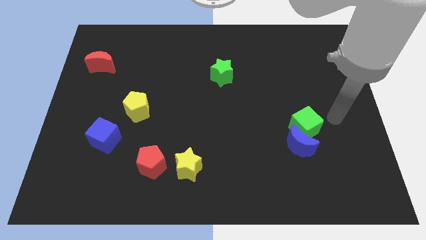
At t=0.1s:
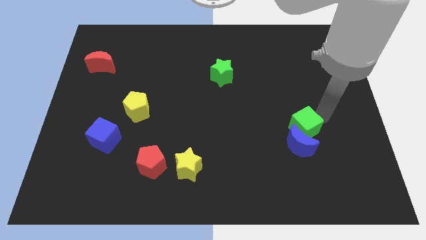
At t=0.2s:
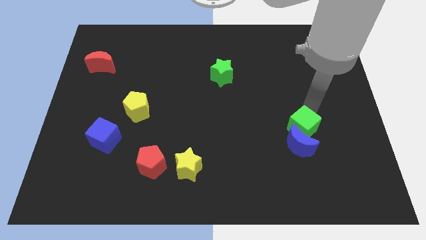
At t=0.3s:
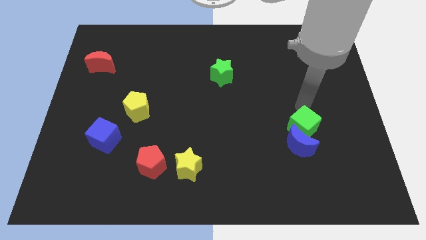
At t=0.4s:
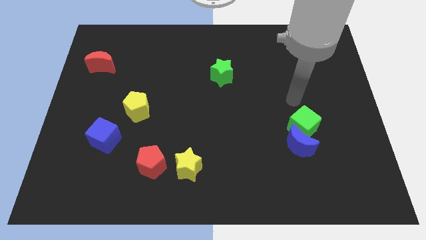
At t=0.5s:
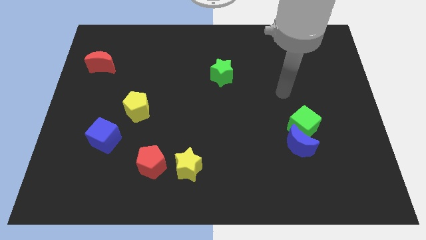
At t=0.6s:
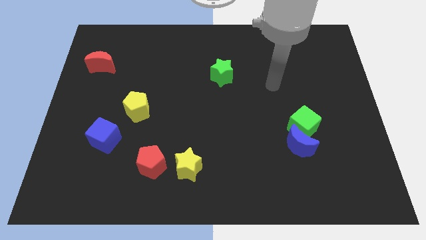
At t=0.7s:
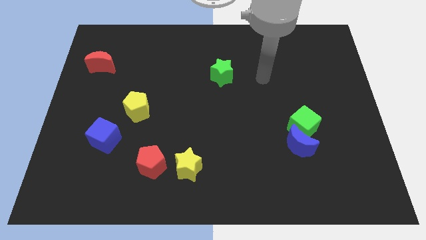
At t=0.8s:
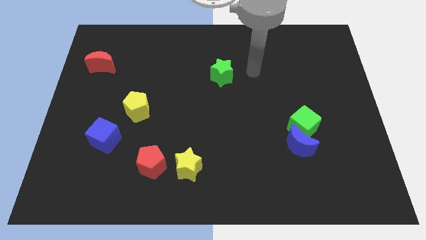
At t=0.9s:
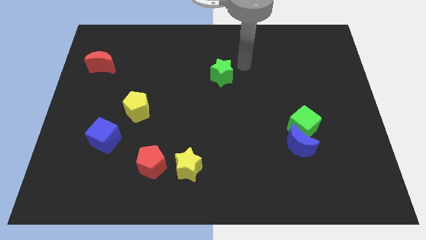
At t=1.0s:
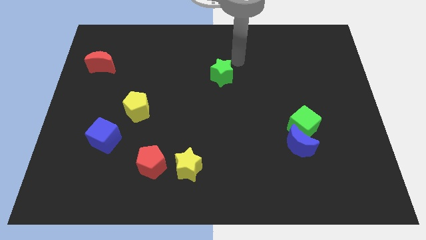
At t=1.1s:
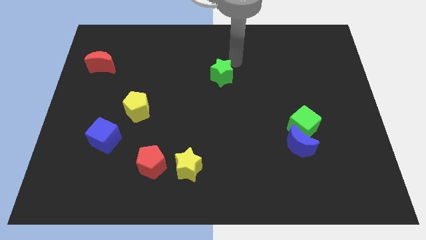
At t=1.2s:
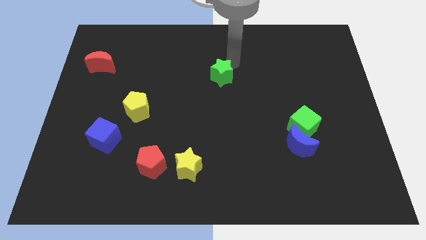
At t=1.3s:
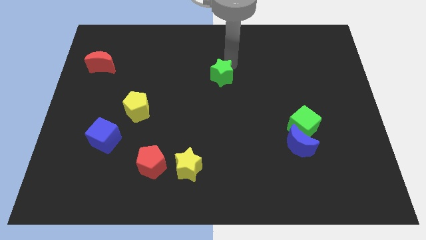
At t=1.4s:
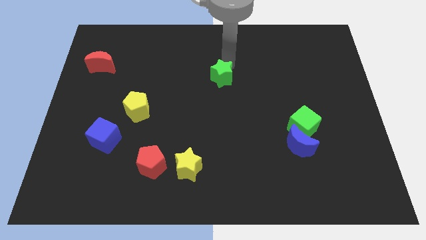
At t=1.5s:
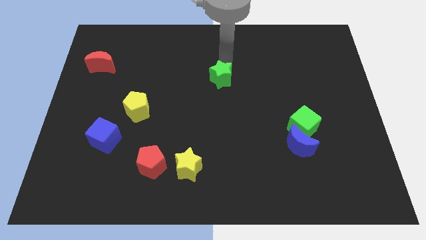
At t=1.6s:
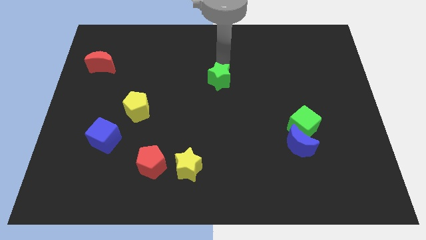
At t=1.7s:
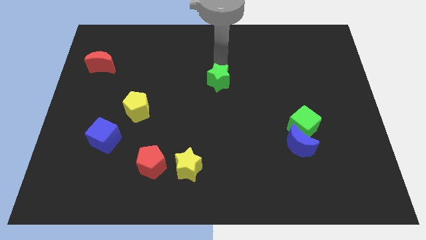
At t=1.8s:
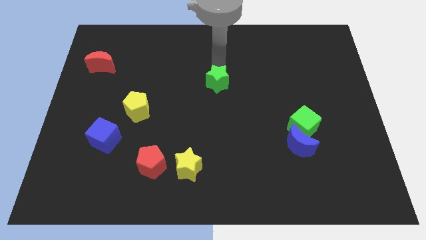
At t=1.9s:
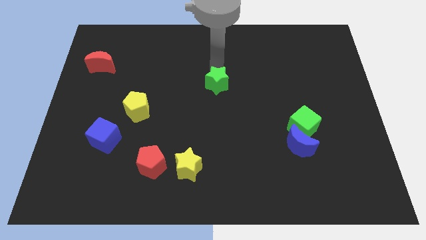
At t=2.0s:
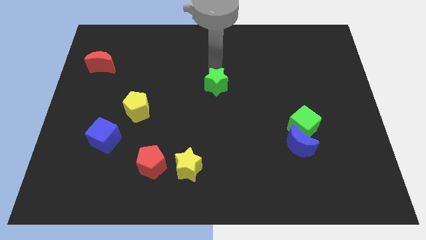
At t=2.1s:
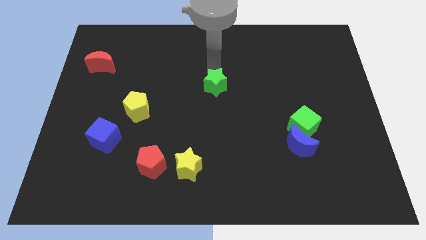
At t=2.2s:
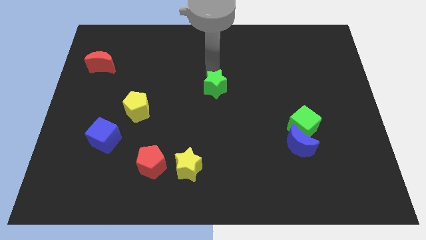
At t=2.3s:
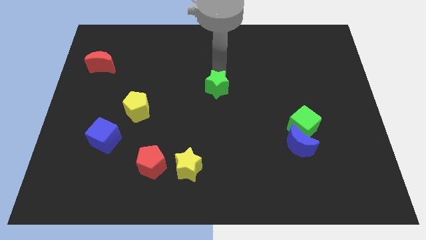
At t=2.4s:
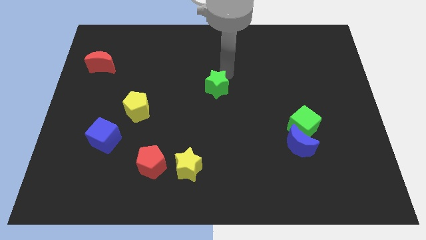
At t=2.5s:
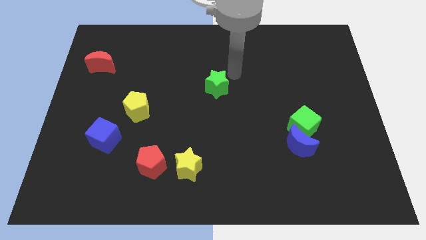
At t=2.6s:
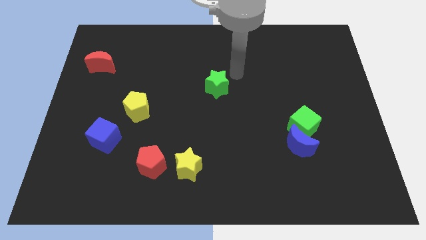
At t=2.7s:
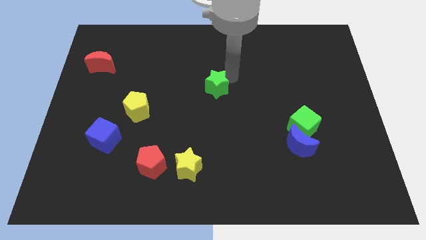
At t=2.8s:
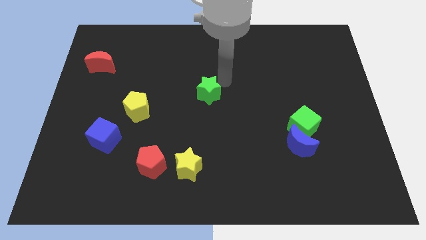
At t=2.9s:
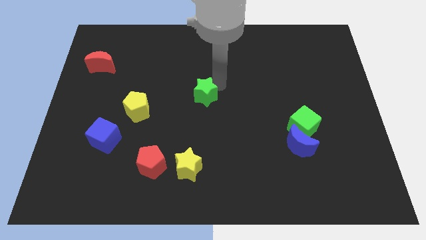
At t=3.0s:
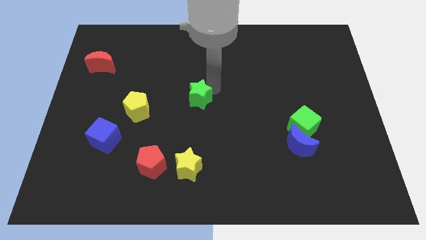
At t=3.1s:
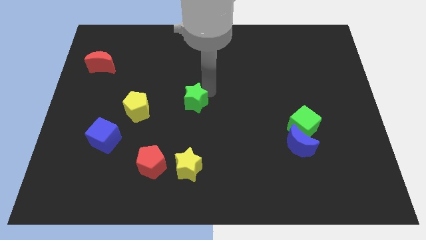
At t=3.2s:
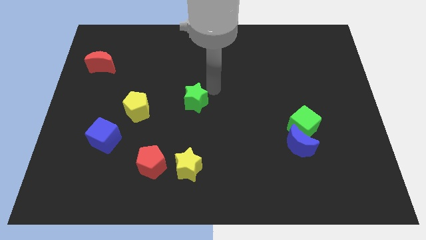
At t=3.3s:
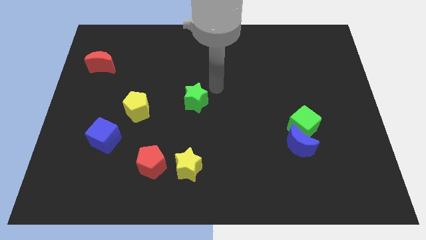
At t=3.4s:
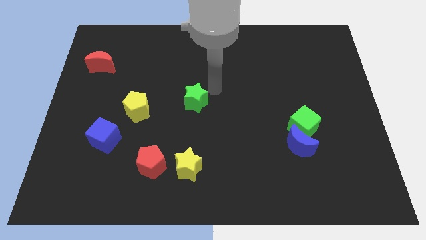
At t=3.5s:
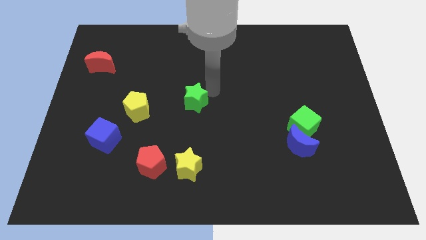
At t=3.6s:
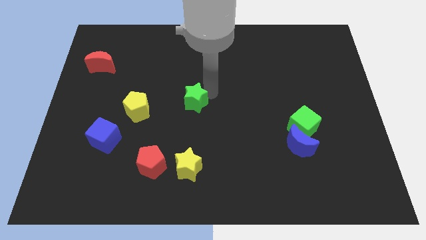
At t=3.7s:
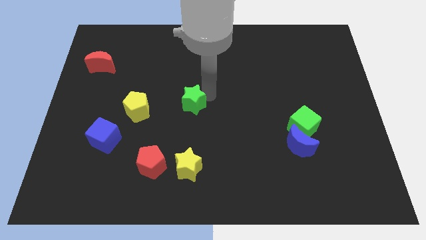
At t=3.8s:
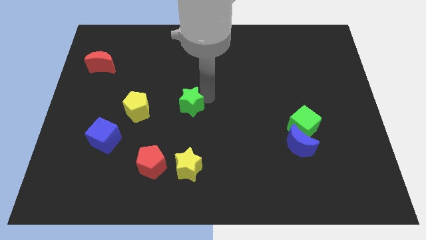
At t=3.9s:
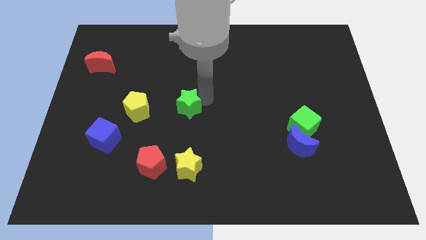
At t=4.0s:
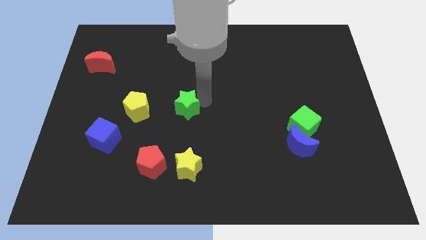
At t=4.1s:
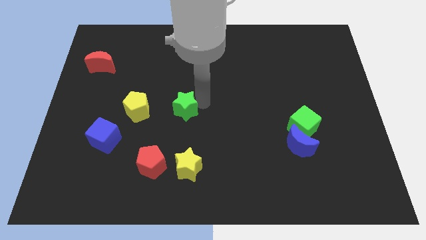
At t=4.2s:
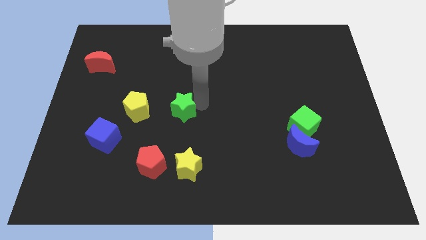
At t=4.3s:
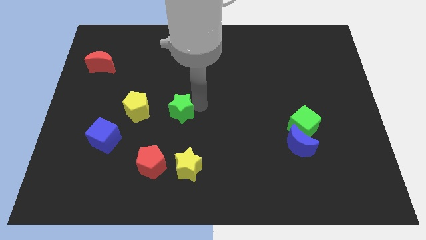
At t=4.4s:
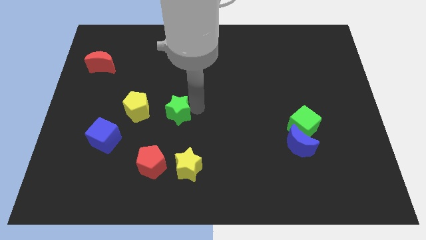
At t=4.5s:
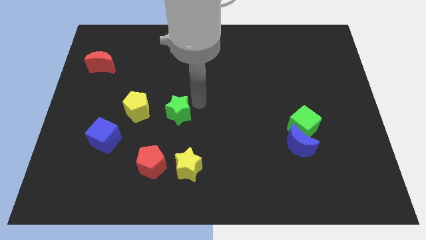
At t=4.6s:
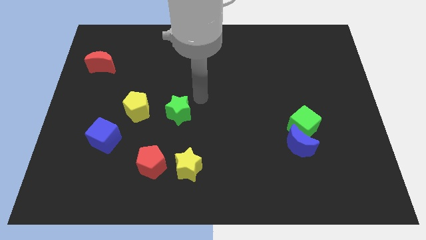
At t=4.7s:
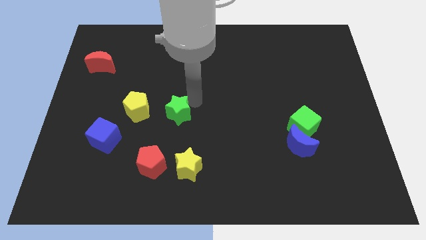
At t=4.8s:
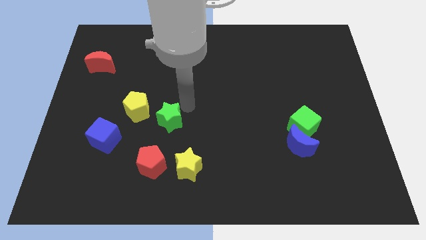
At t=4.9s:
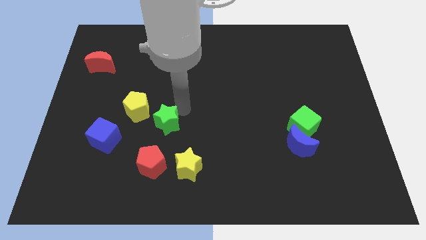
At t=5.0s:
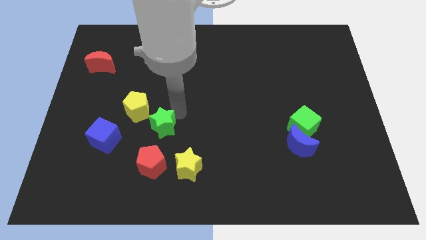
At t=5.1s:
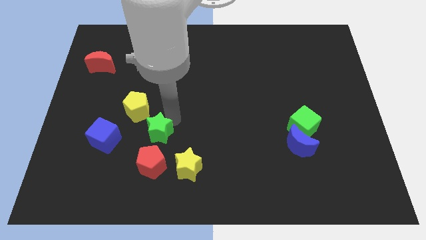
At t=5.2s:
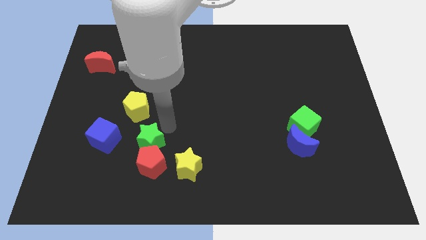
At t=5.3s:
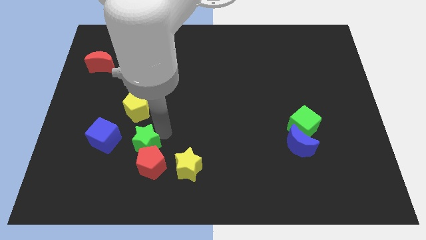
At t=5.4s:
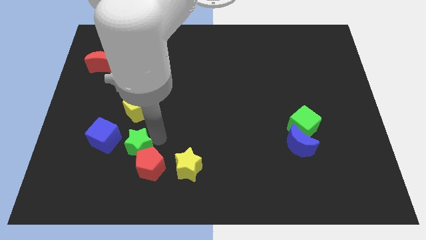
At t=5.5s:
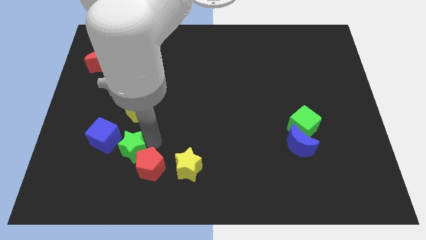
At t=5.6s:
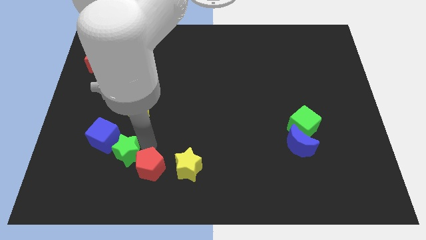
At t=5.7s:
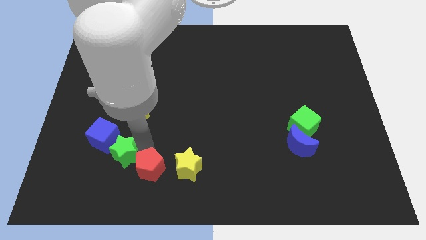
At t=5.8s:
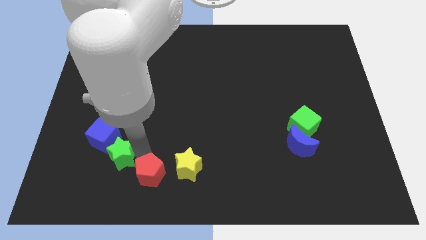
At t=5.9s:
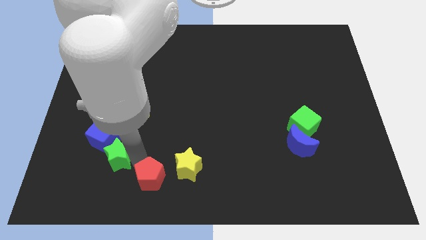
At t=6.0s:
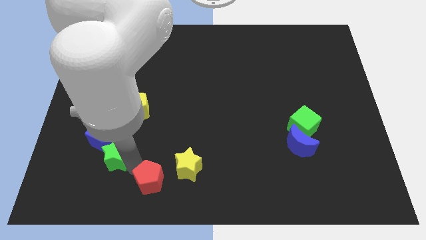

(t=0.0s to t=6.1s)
slide the green star next to the blue cube
